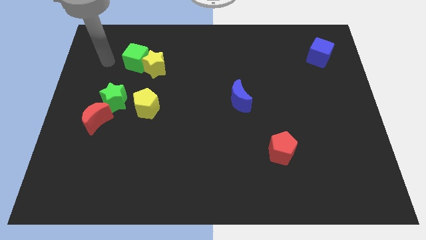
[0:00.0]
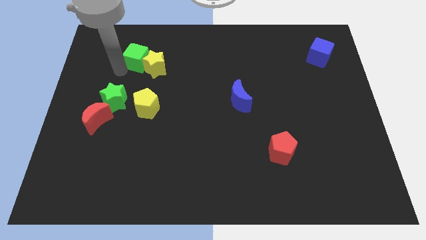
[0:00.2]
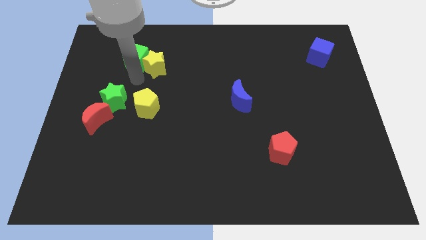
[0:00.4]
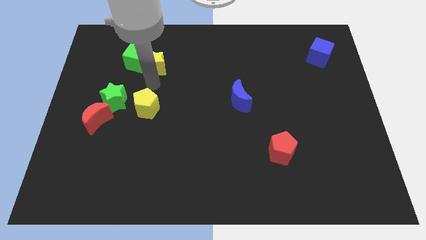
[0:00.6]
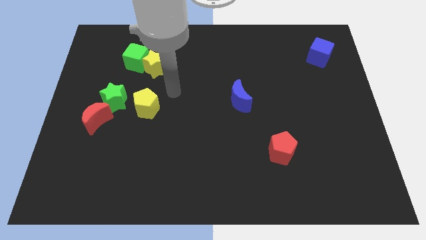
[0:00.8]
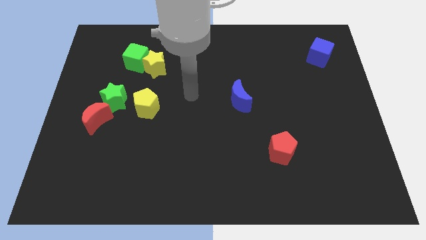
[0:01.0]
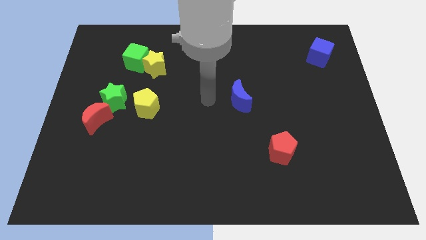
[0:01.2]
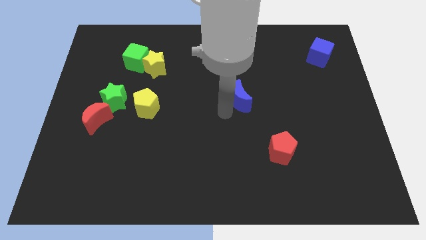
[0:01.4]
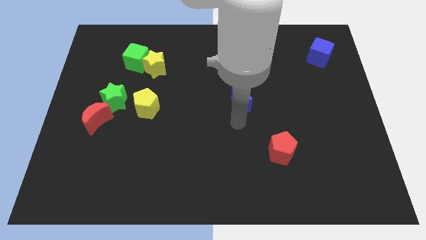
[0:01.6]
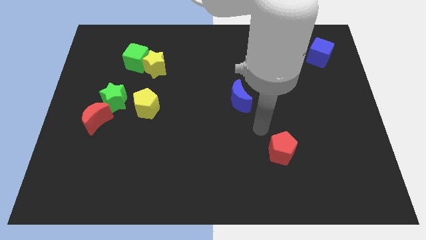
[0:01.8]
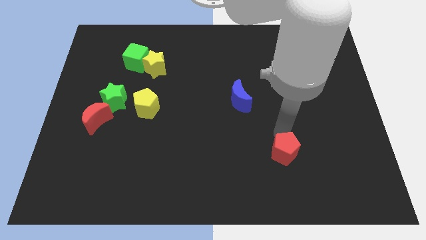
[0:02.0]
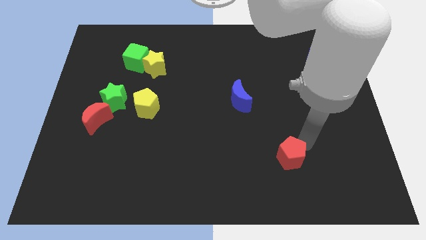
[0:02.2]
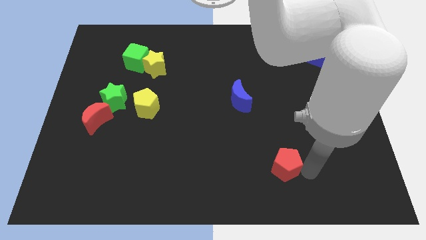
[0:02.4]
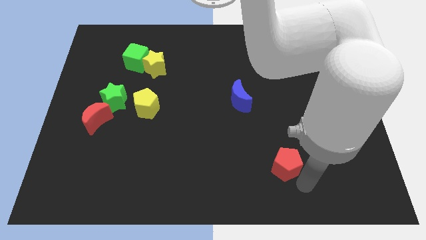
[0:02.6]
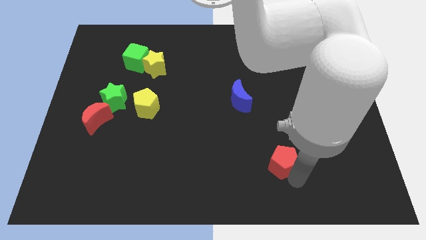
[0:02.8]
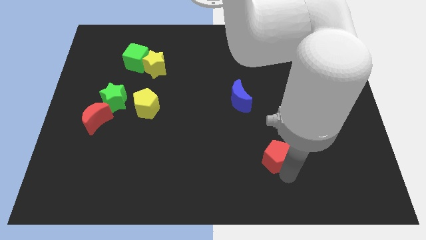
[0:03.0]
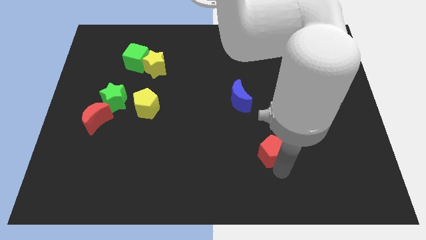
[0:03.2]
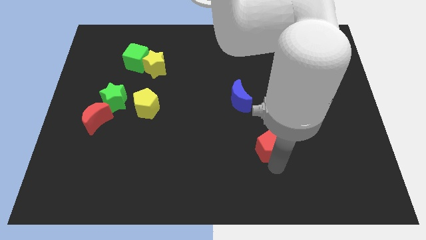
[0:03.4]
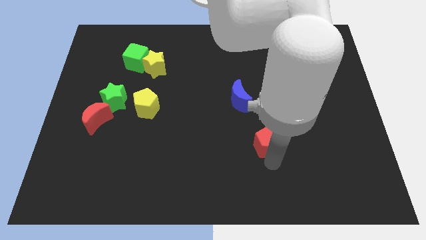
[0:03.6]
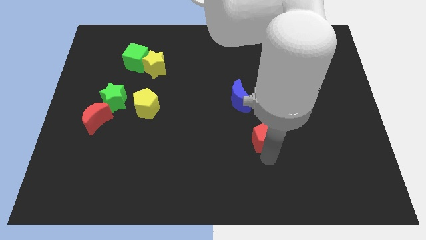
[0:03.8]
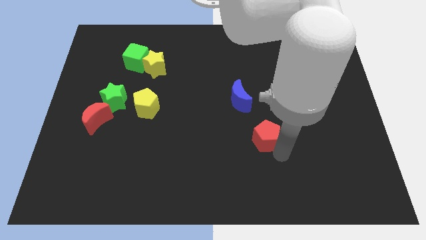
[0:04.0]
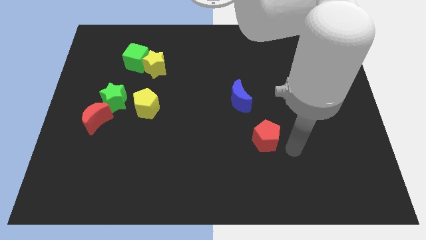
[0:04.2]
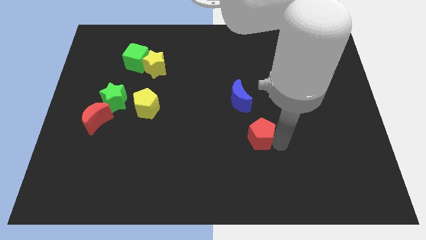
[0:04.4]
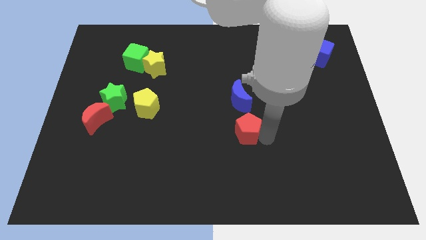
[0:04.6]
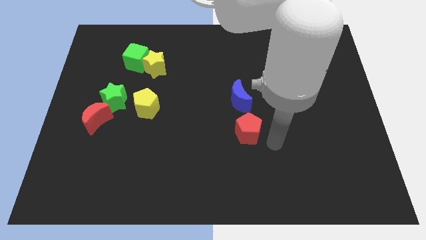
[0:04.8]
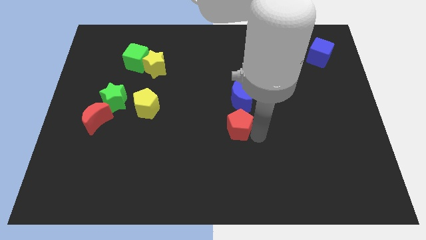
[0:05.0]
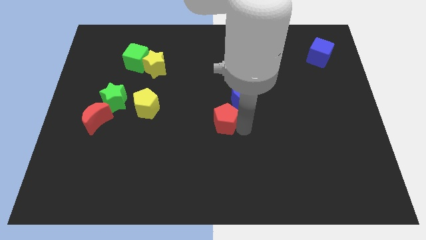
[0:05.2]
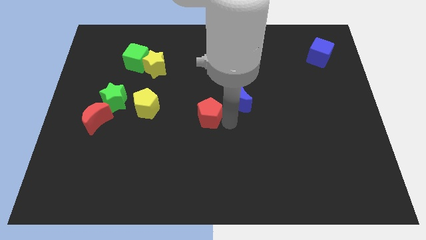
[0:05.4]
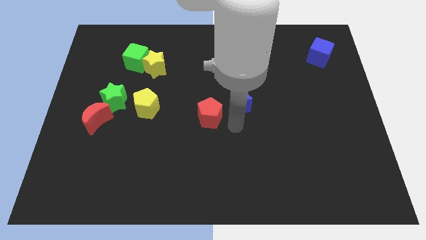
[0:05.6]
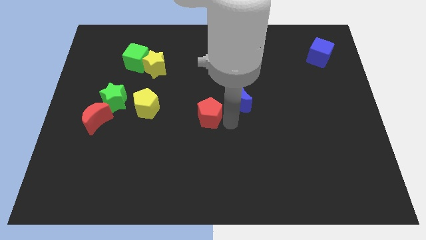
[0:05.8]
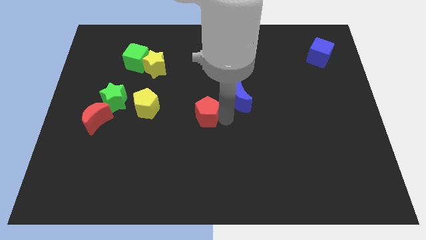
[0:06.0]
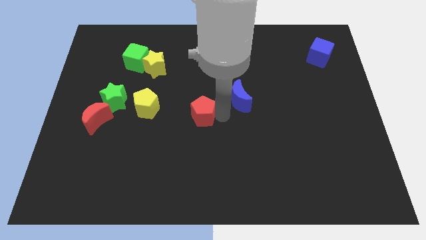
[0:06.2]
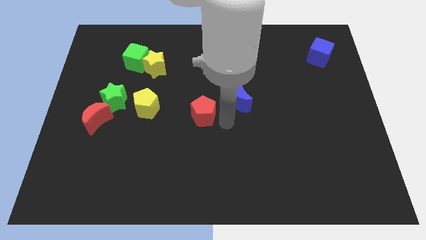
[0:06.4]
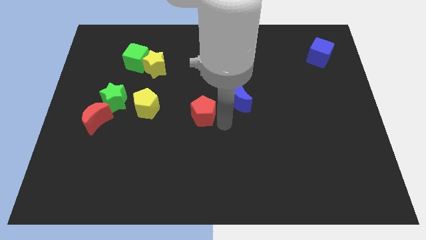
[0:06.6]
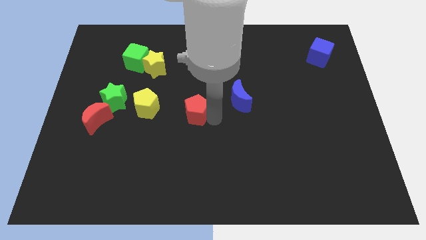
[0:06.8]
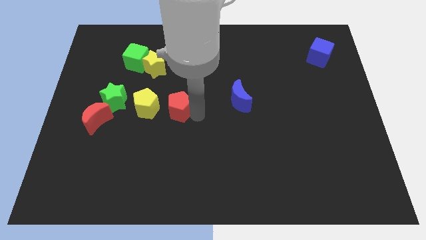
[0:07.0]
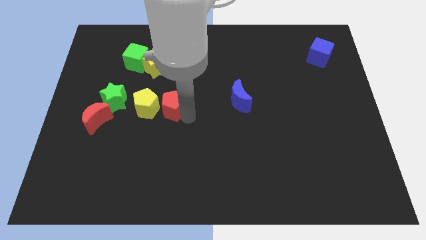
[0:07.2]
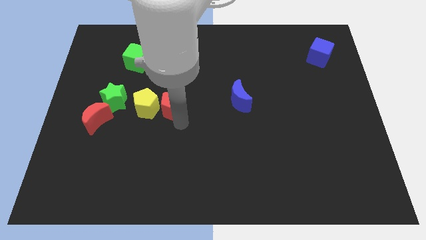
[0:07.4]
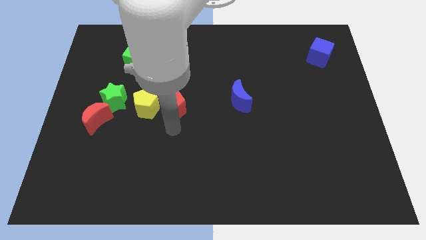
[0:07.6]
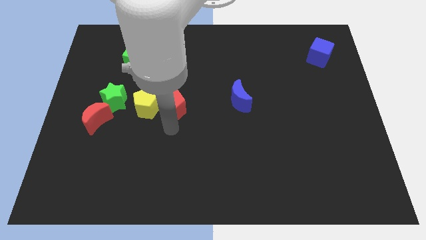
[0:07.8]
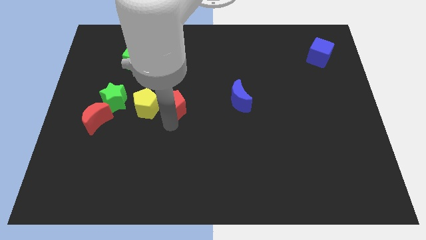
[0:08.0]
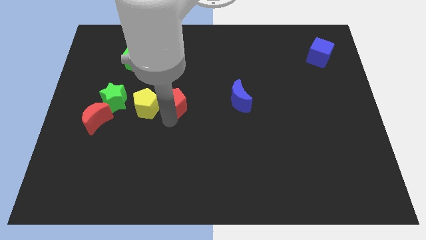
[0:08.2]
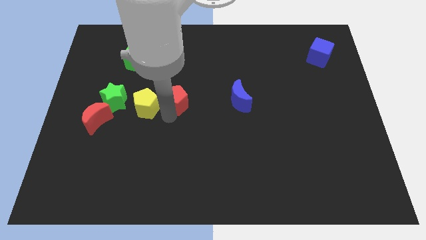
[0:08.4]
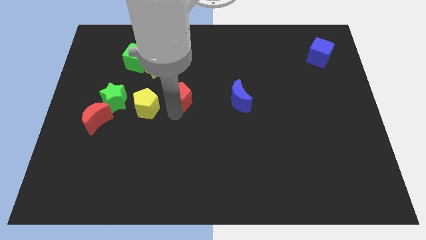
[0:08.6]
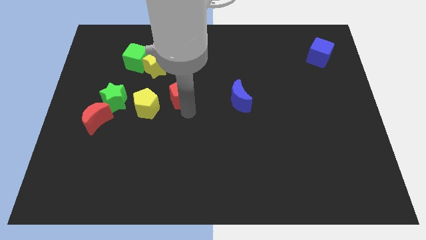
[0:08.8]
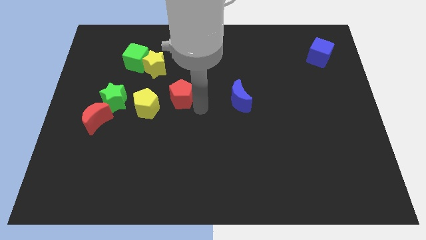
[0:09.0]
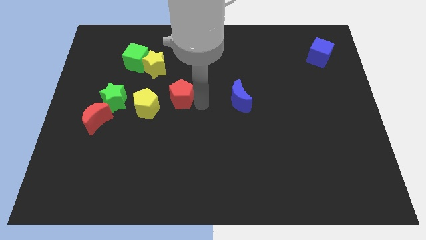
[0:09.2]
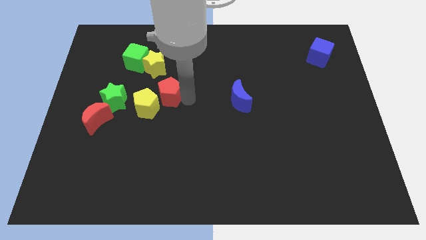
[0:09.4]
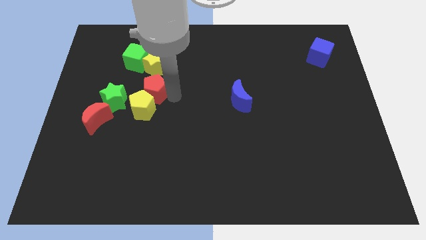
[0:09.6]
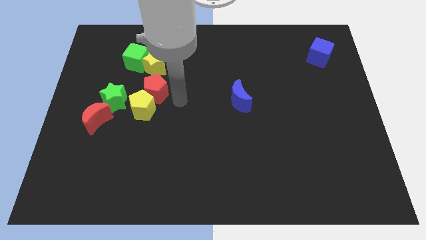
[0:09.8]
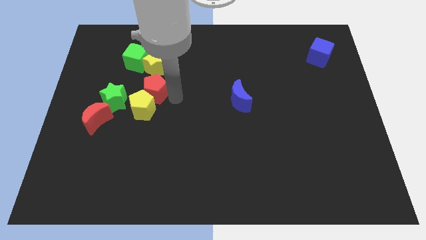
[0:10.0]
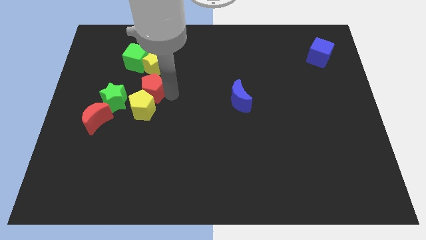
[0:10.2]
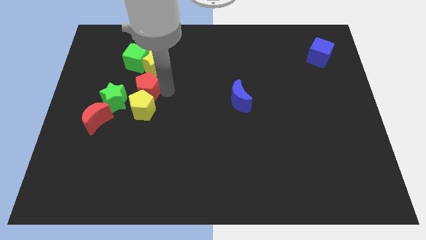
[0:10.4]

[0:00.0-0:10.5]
slide the red pentagon diagonally down and to the left of the yellow star

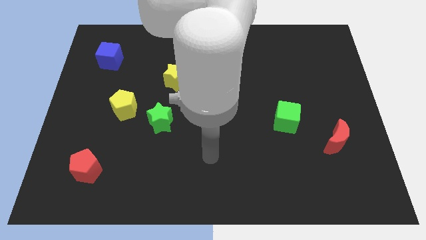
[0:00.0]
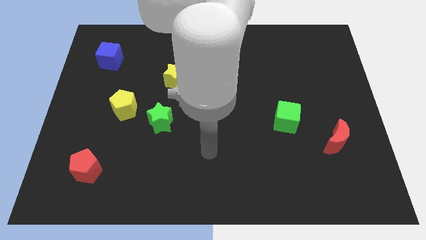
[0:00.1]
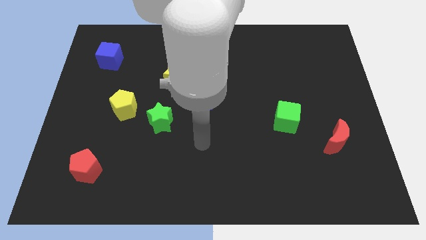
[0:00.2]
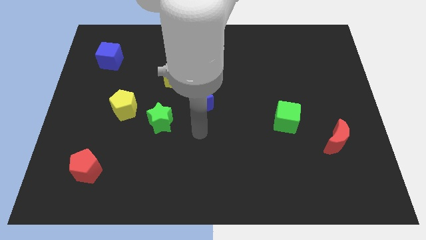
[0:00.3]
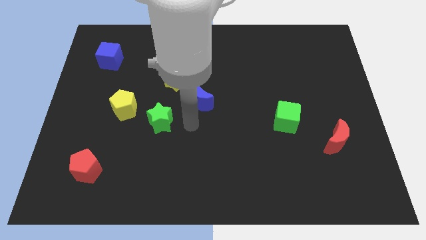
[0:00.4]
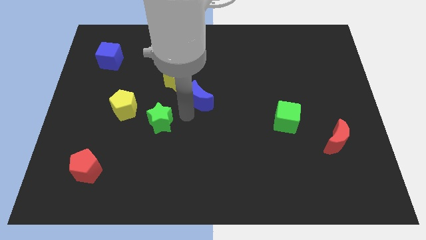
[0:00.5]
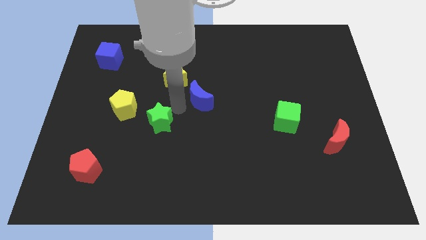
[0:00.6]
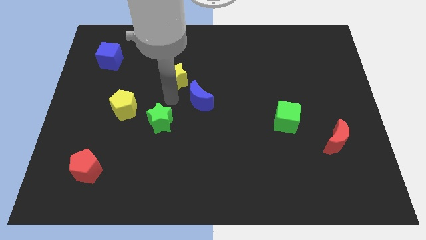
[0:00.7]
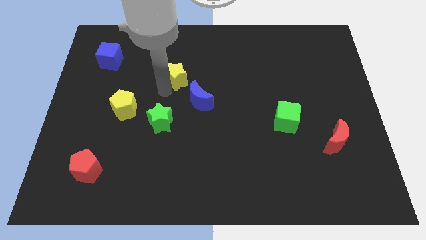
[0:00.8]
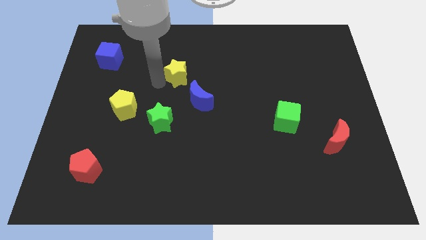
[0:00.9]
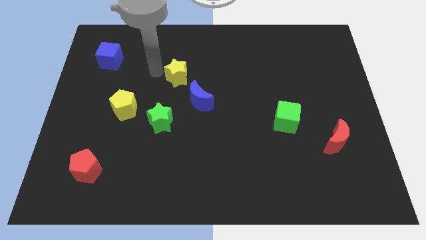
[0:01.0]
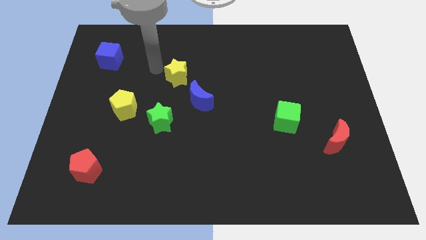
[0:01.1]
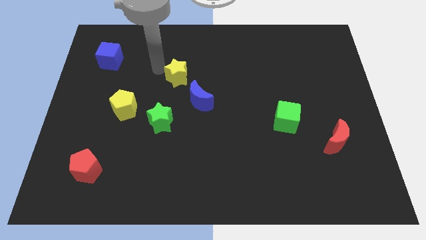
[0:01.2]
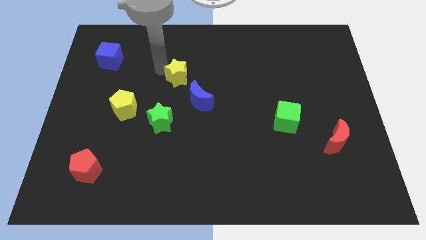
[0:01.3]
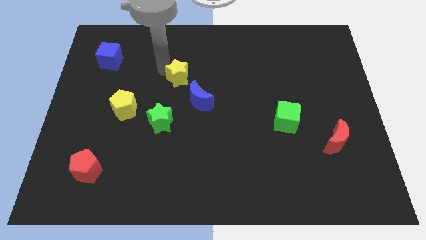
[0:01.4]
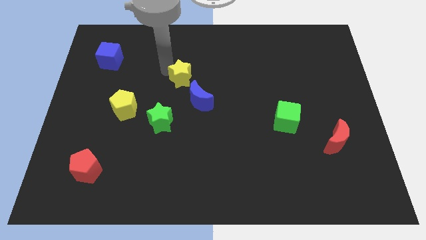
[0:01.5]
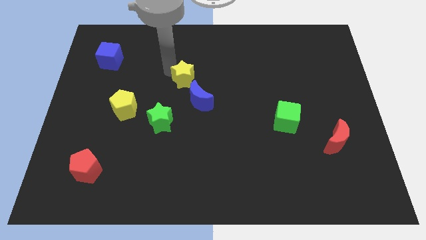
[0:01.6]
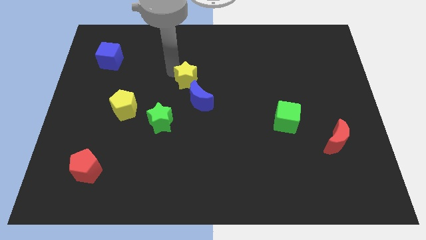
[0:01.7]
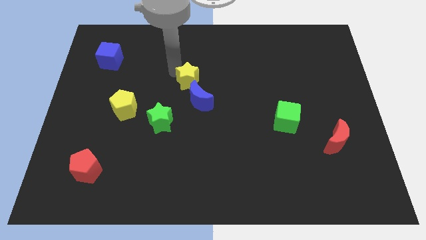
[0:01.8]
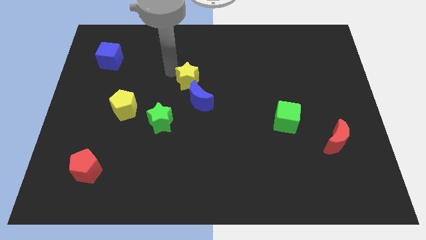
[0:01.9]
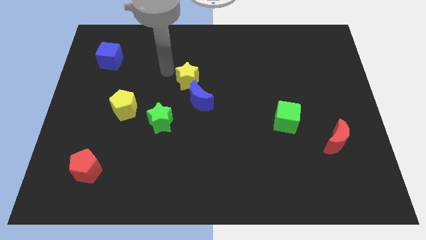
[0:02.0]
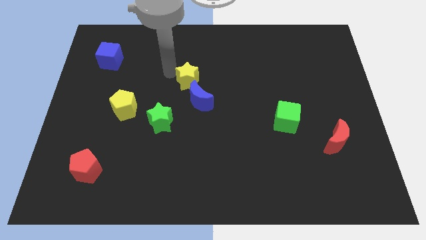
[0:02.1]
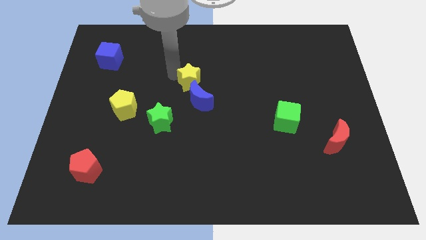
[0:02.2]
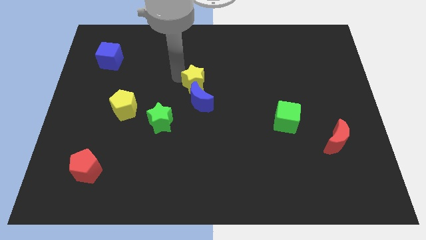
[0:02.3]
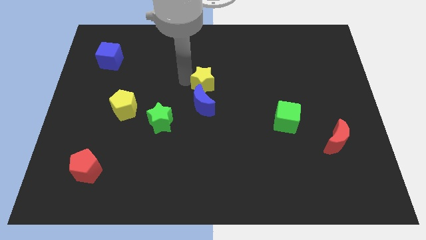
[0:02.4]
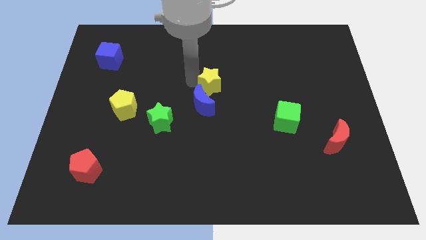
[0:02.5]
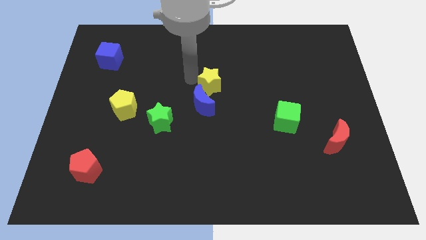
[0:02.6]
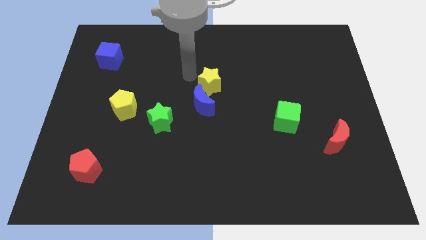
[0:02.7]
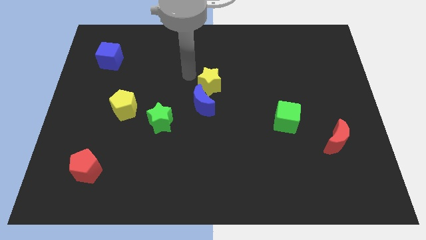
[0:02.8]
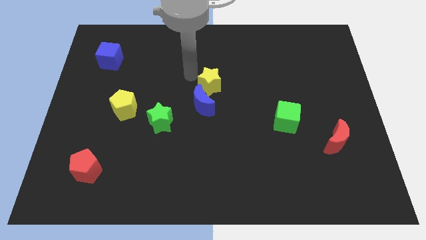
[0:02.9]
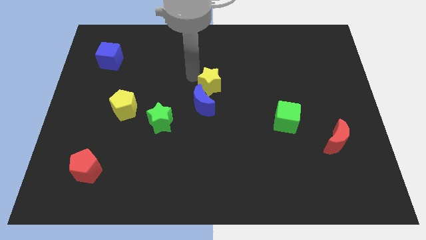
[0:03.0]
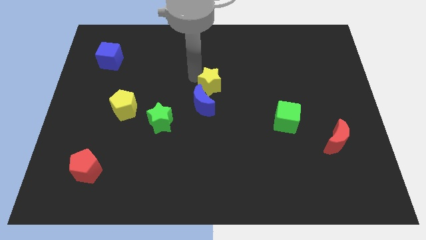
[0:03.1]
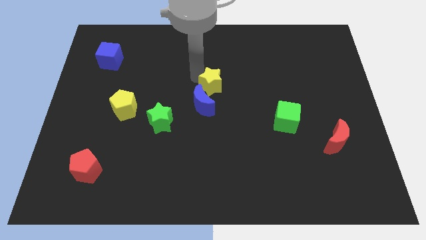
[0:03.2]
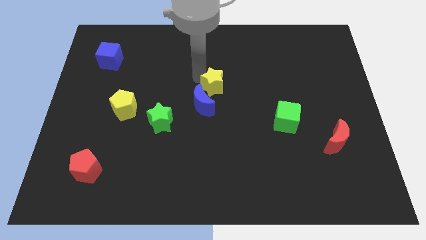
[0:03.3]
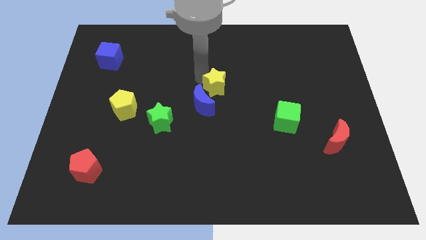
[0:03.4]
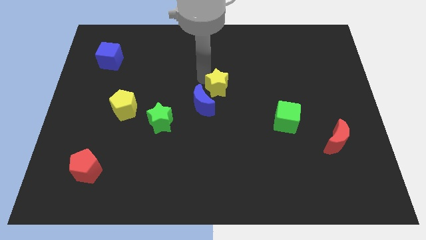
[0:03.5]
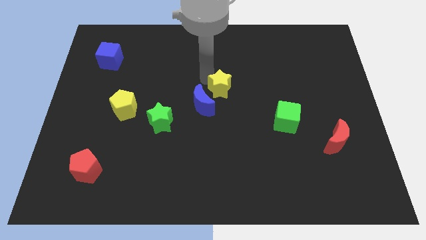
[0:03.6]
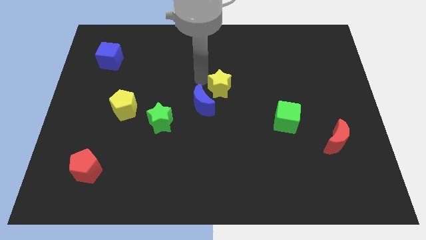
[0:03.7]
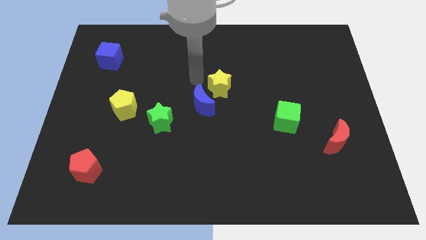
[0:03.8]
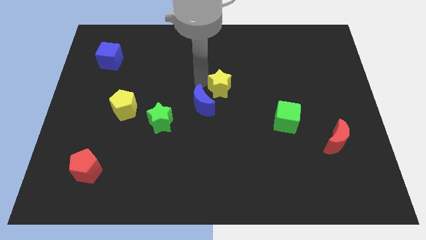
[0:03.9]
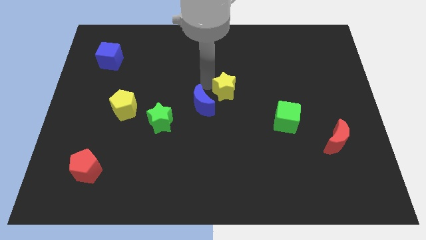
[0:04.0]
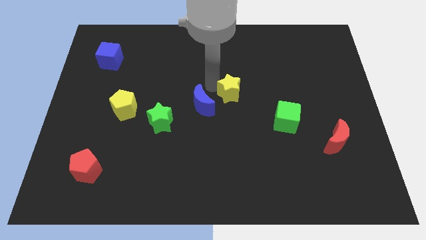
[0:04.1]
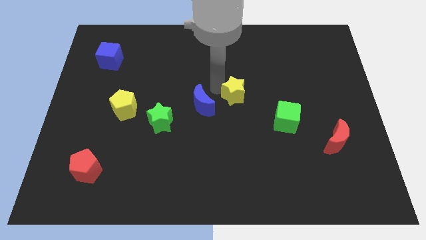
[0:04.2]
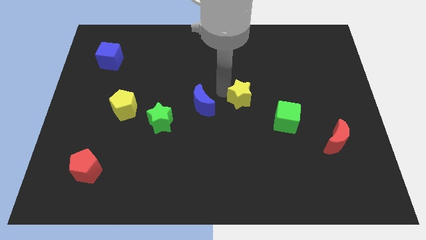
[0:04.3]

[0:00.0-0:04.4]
put the yellow star to the top left of the green cube
